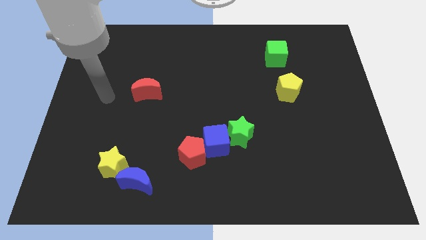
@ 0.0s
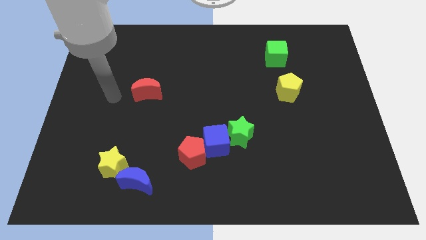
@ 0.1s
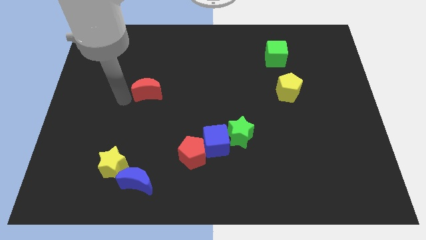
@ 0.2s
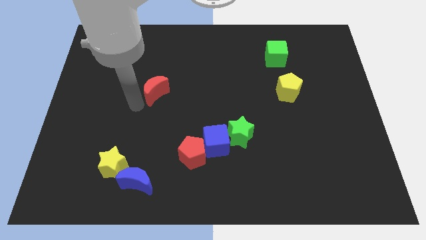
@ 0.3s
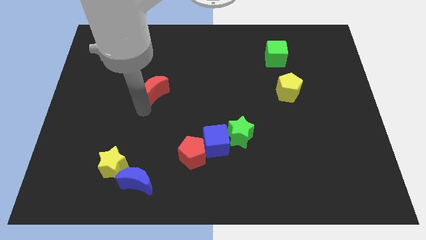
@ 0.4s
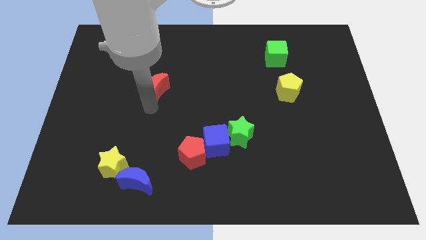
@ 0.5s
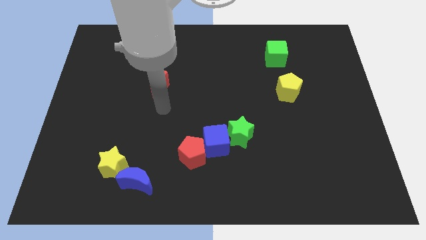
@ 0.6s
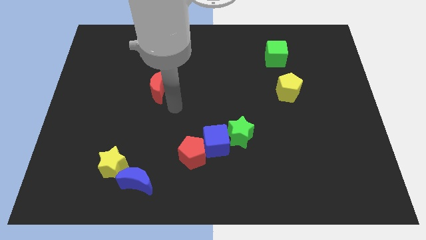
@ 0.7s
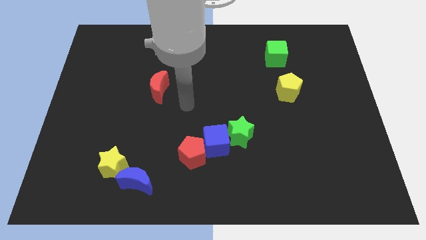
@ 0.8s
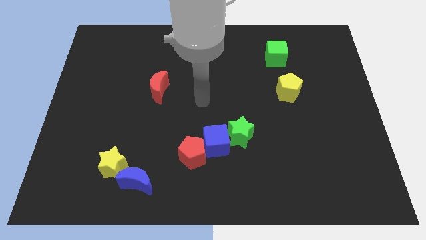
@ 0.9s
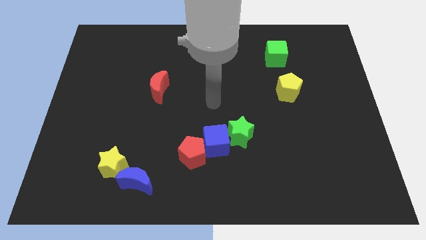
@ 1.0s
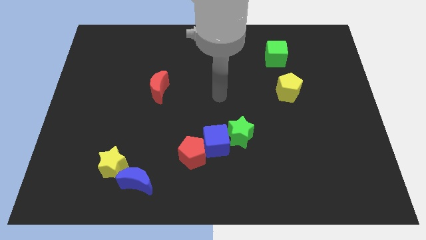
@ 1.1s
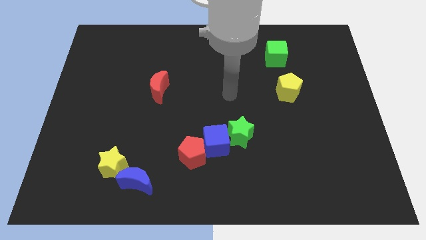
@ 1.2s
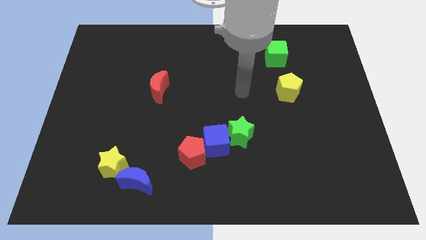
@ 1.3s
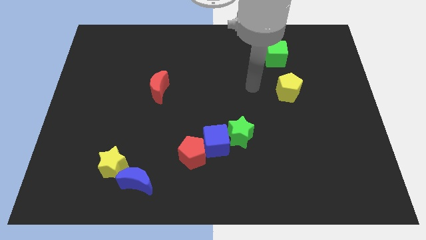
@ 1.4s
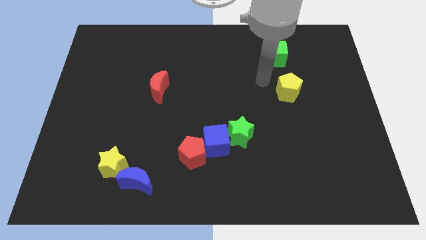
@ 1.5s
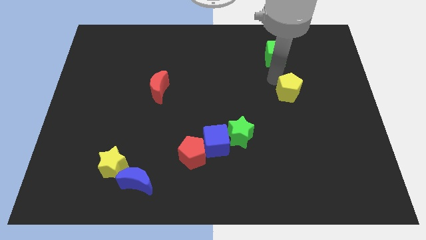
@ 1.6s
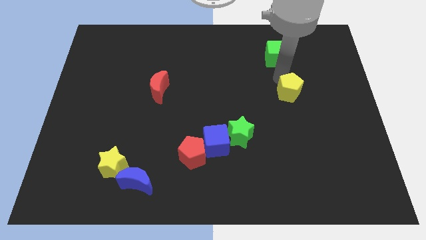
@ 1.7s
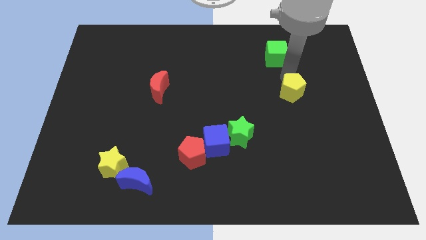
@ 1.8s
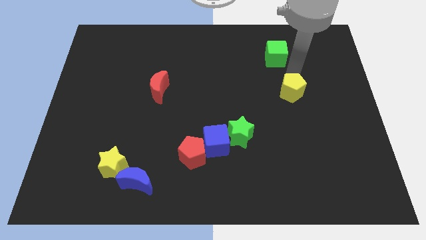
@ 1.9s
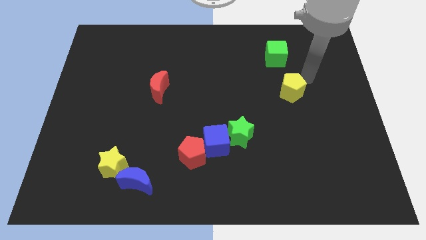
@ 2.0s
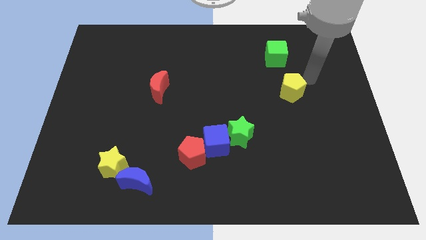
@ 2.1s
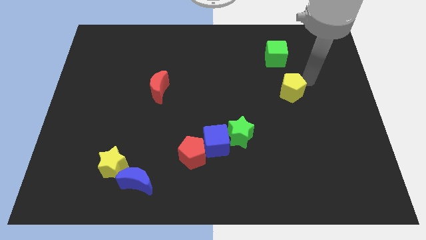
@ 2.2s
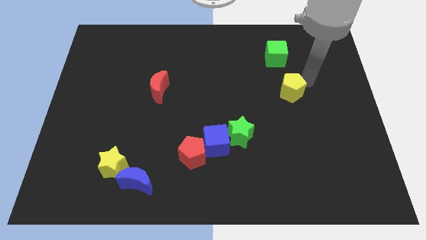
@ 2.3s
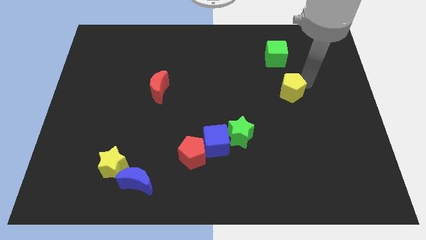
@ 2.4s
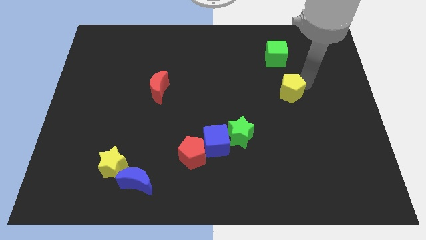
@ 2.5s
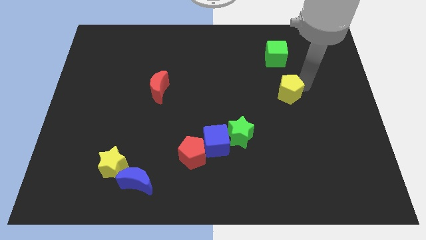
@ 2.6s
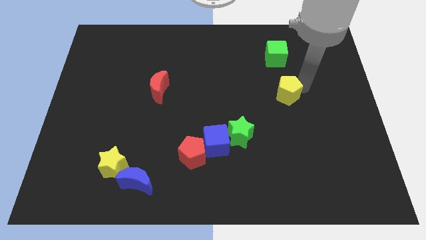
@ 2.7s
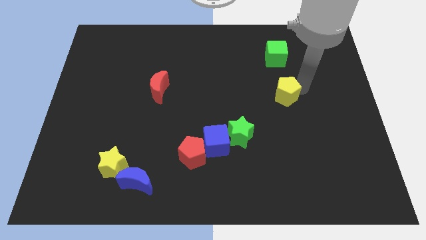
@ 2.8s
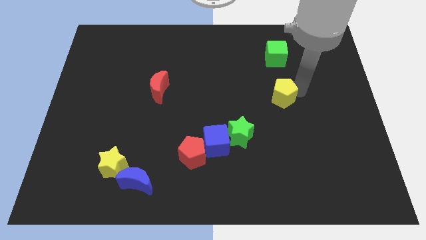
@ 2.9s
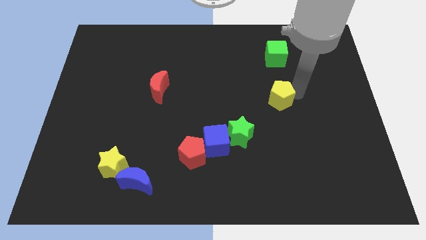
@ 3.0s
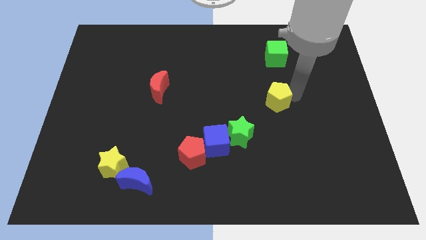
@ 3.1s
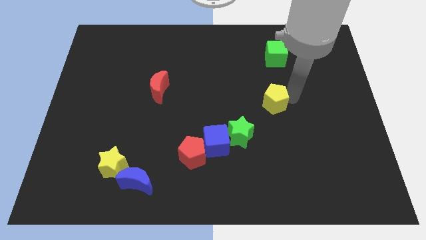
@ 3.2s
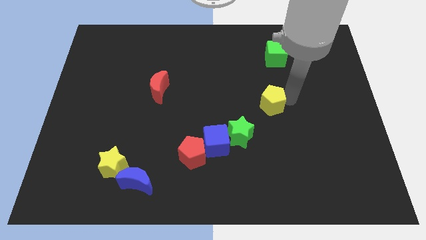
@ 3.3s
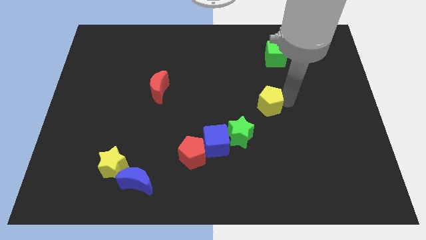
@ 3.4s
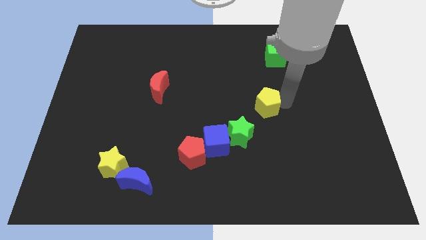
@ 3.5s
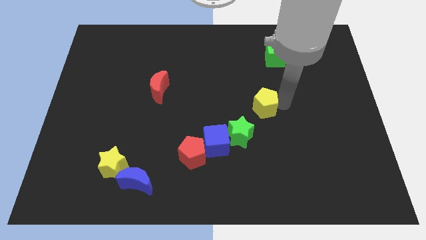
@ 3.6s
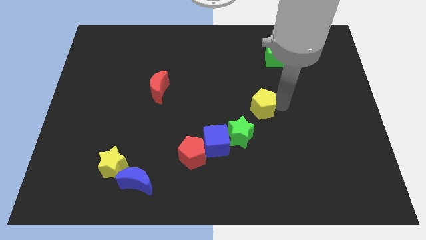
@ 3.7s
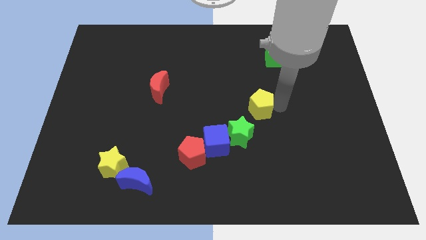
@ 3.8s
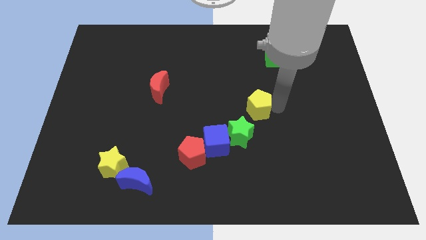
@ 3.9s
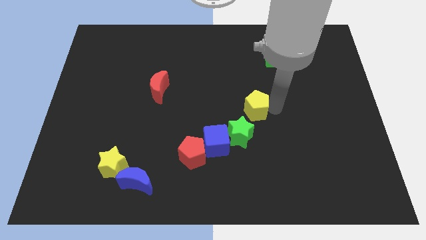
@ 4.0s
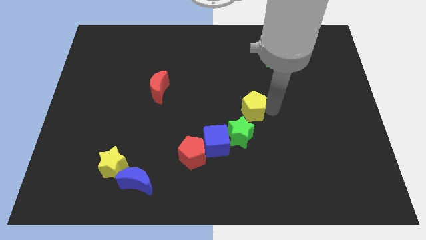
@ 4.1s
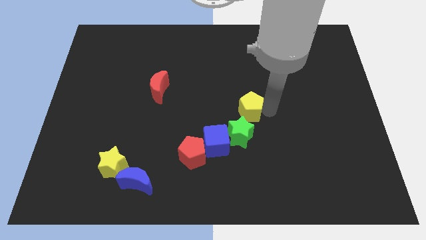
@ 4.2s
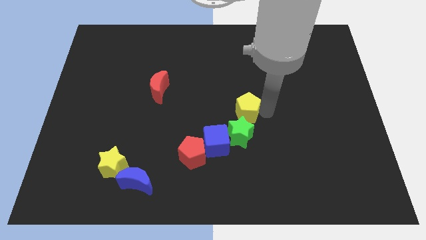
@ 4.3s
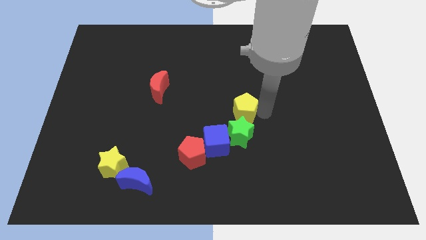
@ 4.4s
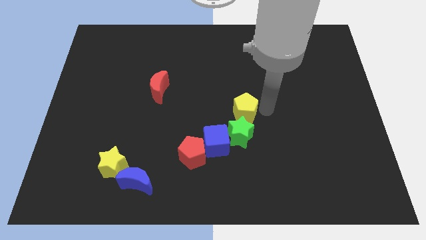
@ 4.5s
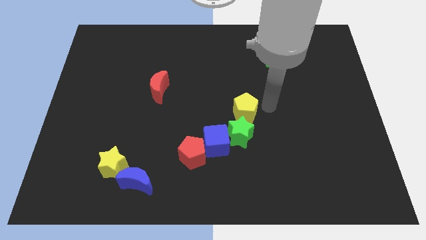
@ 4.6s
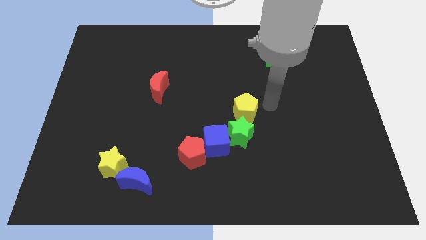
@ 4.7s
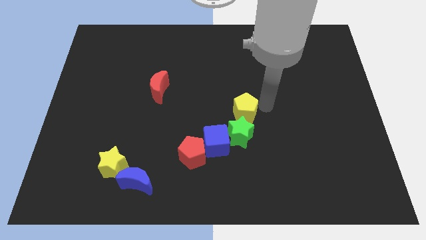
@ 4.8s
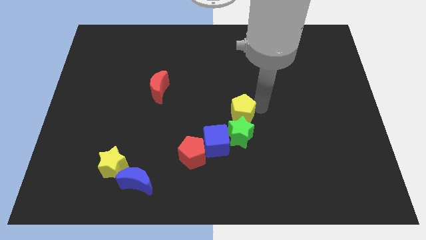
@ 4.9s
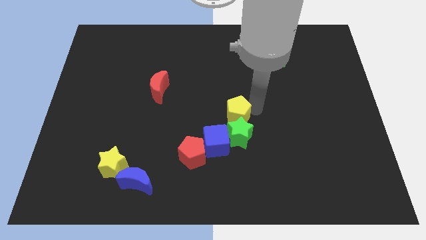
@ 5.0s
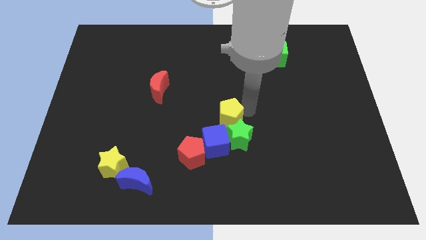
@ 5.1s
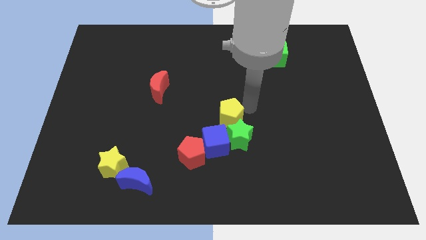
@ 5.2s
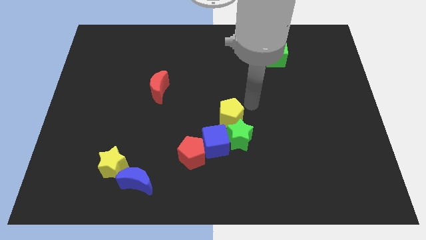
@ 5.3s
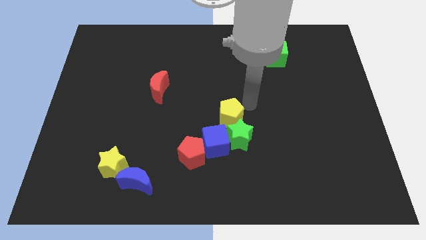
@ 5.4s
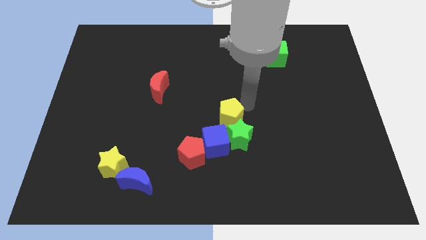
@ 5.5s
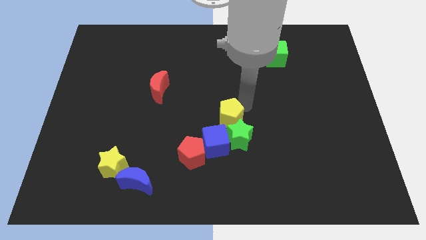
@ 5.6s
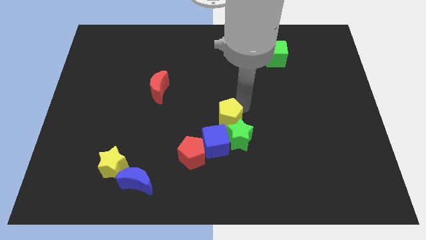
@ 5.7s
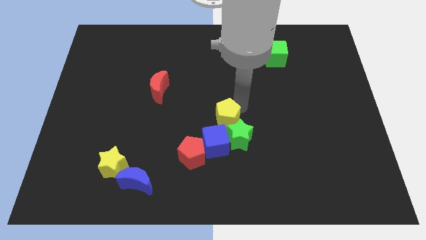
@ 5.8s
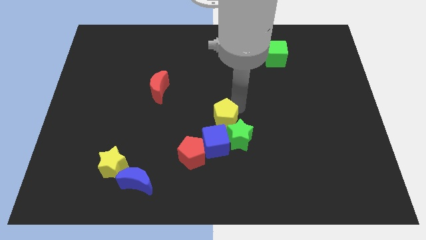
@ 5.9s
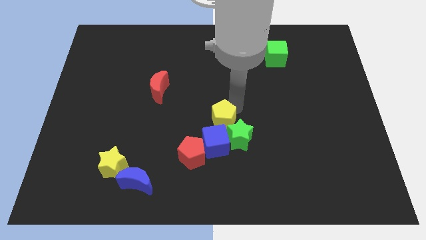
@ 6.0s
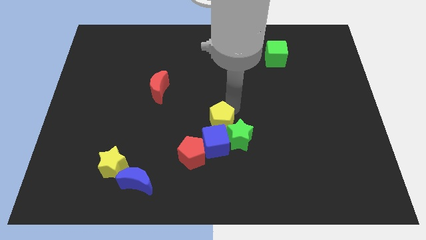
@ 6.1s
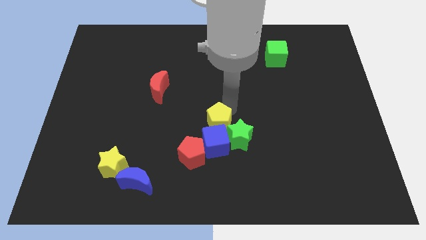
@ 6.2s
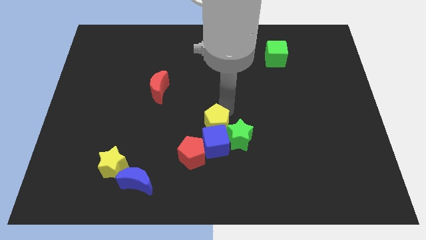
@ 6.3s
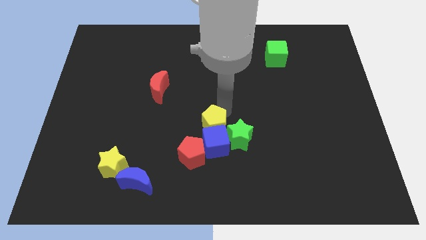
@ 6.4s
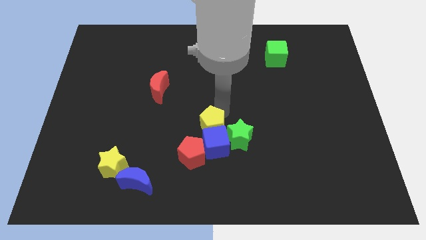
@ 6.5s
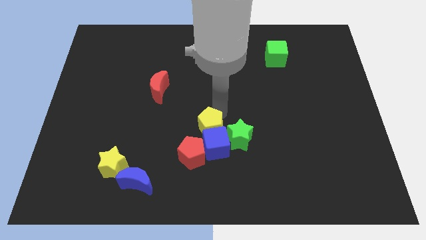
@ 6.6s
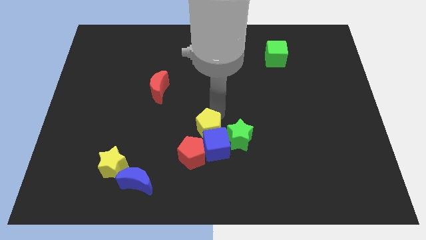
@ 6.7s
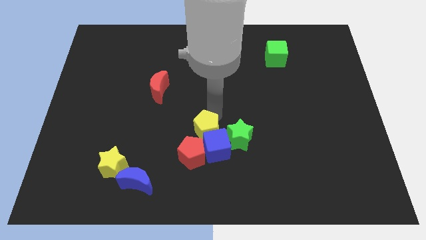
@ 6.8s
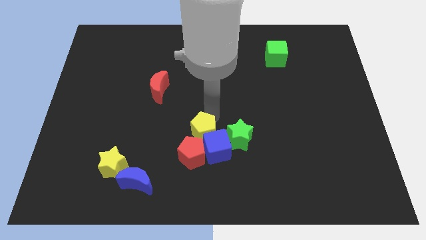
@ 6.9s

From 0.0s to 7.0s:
move the yellow pentagon to the red pentagon
